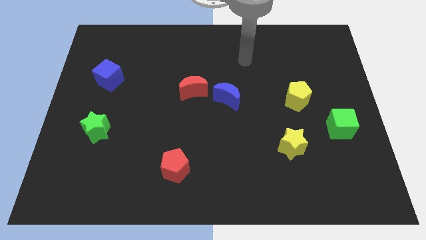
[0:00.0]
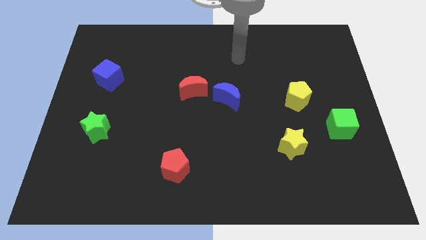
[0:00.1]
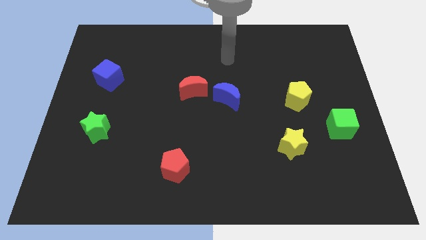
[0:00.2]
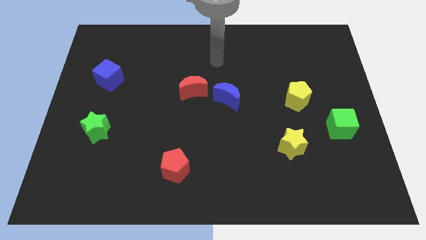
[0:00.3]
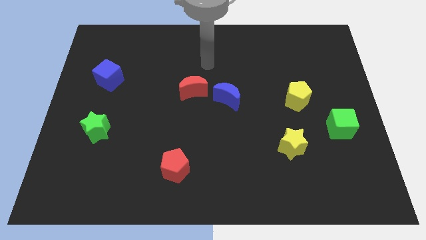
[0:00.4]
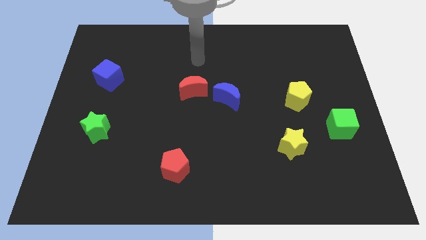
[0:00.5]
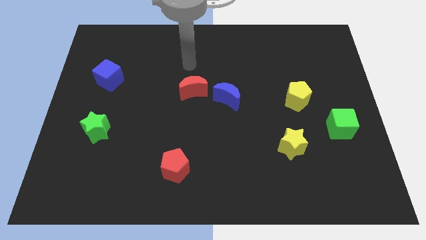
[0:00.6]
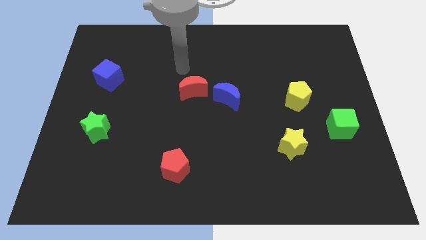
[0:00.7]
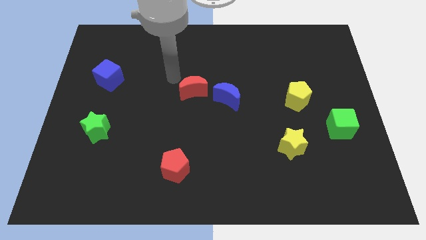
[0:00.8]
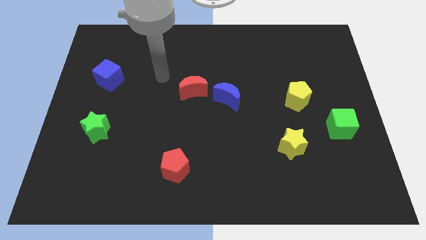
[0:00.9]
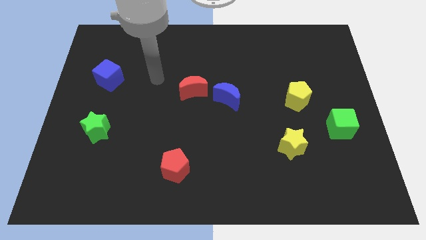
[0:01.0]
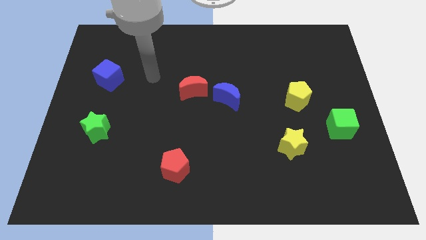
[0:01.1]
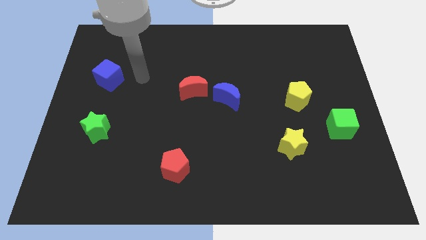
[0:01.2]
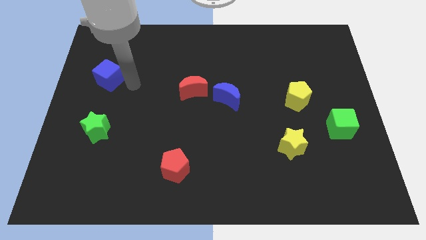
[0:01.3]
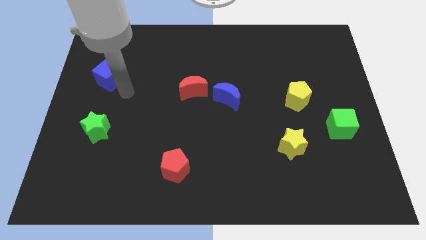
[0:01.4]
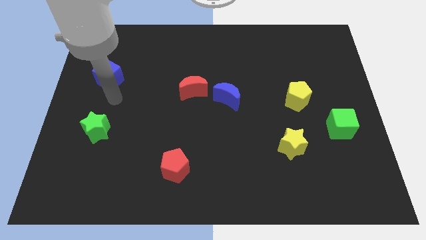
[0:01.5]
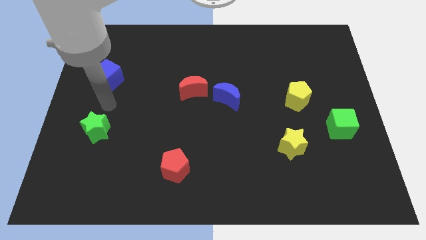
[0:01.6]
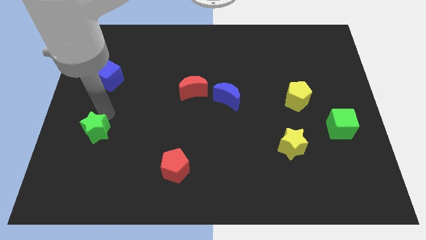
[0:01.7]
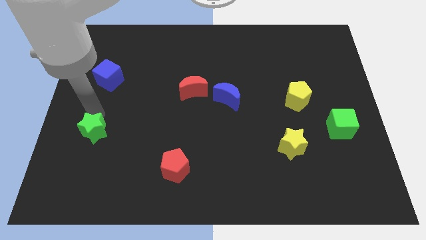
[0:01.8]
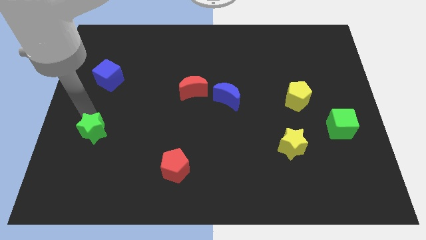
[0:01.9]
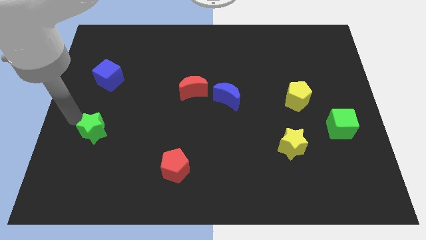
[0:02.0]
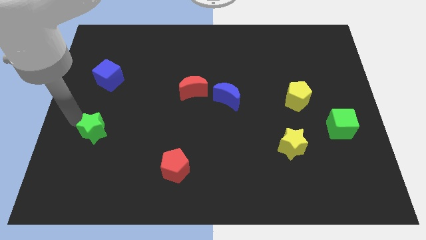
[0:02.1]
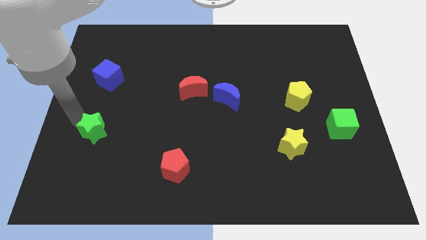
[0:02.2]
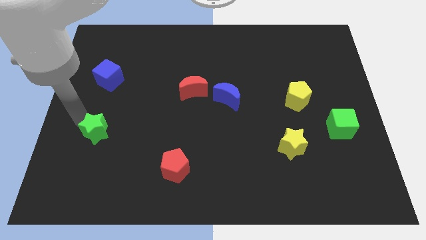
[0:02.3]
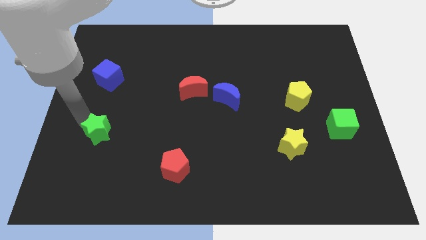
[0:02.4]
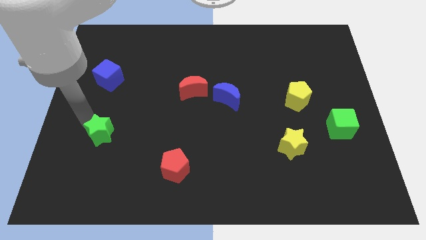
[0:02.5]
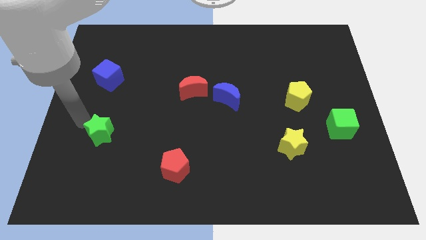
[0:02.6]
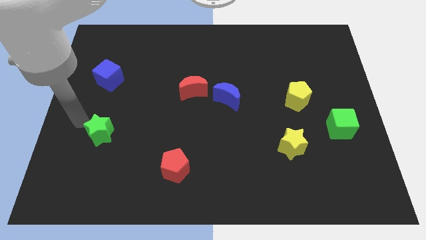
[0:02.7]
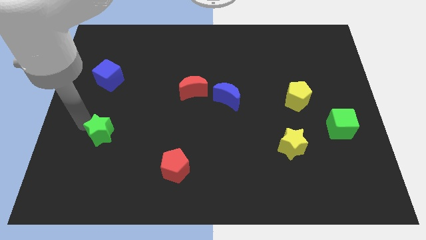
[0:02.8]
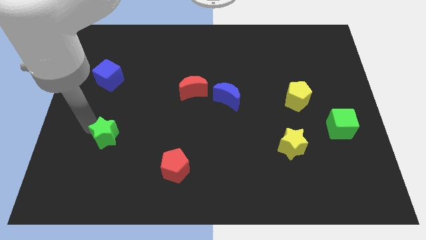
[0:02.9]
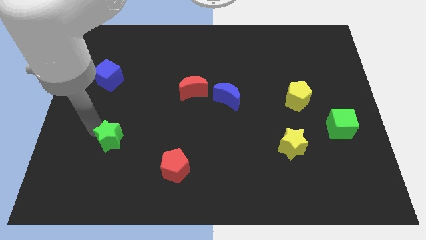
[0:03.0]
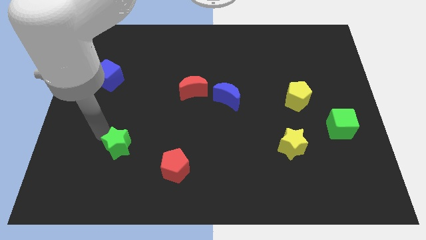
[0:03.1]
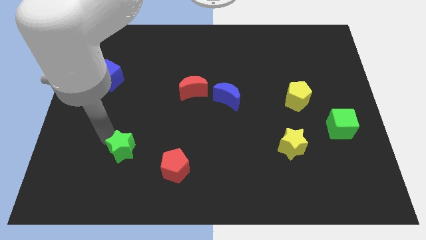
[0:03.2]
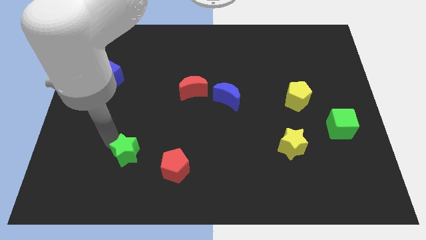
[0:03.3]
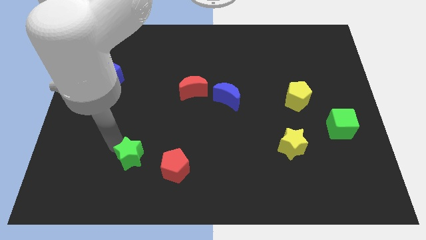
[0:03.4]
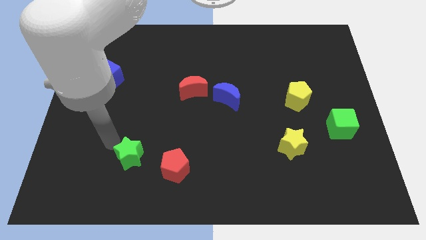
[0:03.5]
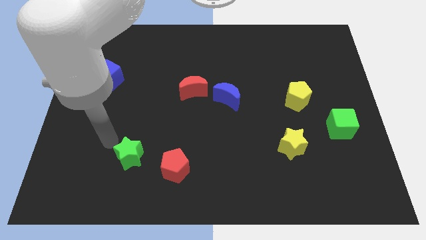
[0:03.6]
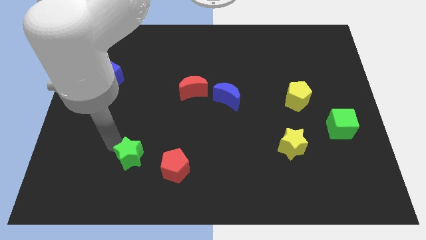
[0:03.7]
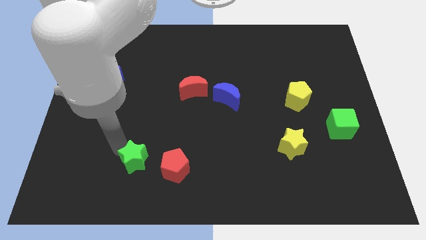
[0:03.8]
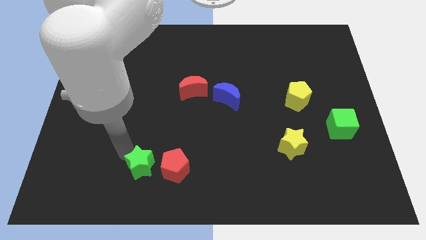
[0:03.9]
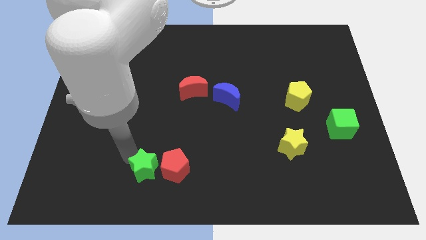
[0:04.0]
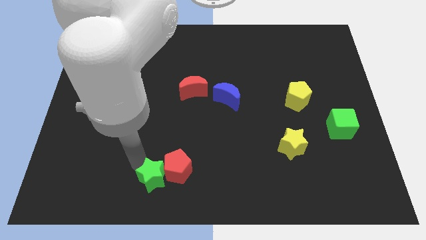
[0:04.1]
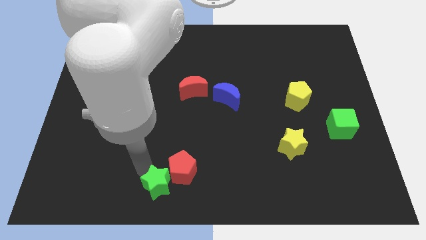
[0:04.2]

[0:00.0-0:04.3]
push the green star to the bottom

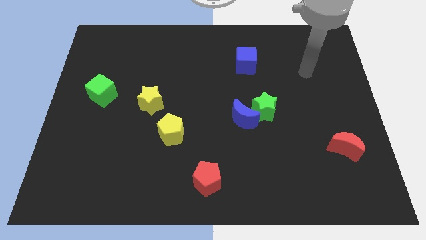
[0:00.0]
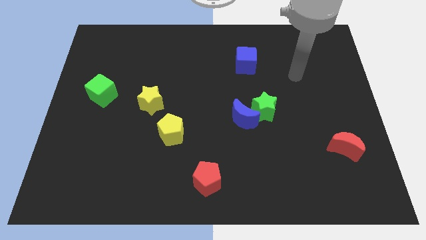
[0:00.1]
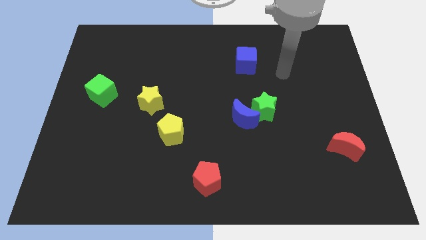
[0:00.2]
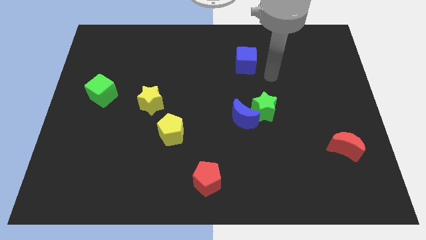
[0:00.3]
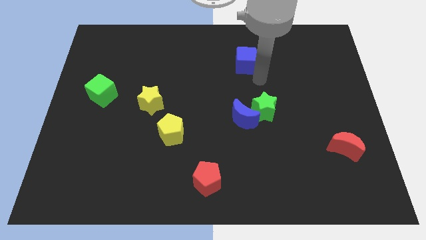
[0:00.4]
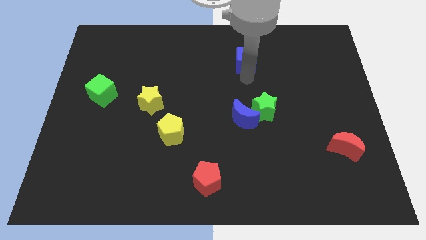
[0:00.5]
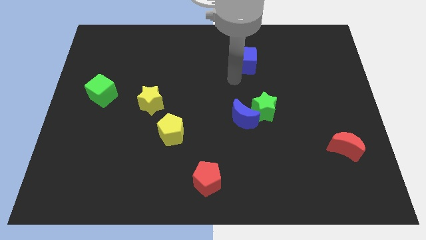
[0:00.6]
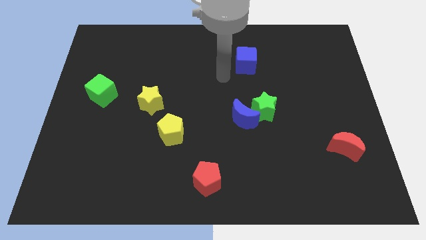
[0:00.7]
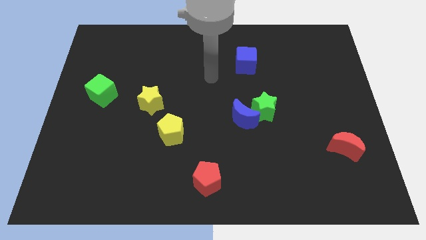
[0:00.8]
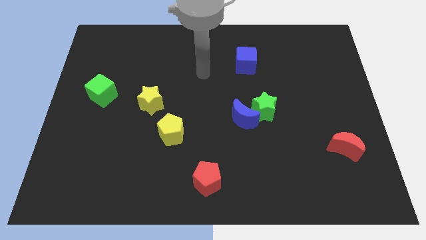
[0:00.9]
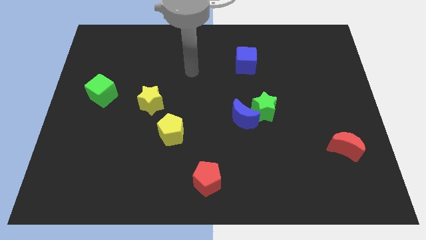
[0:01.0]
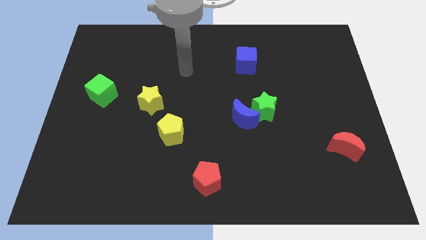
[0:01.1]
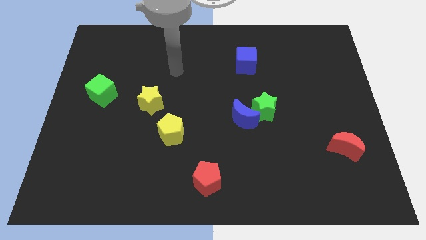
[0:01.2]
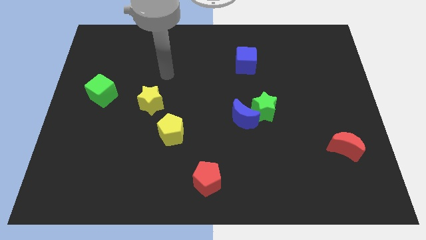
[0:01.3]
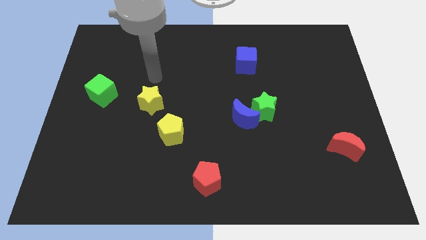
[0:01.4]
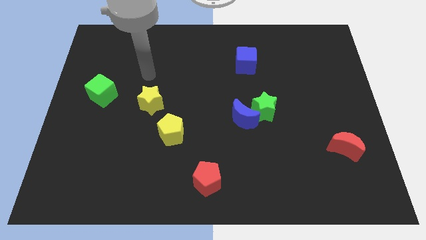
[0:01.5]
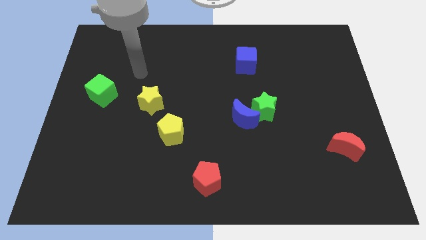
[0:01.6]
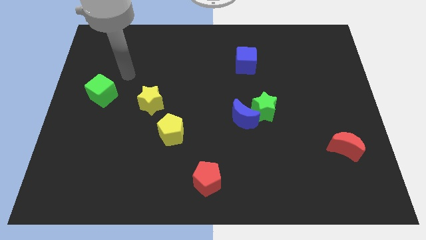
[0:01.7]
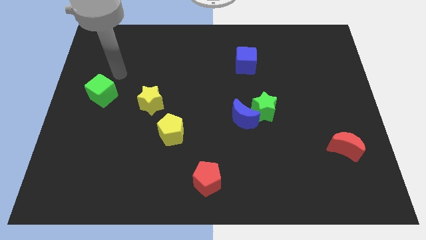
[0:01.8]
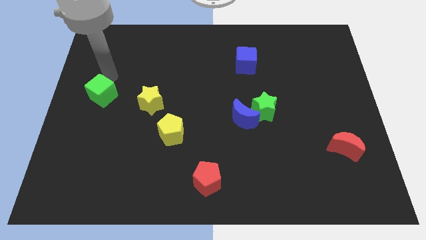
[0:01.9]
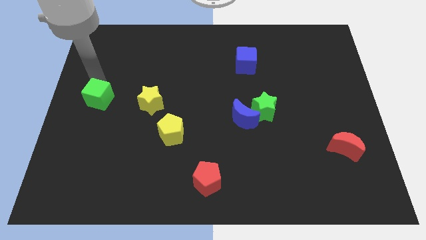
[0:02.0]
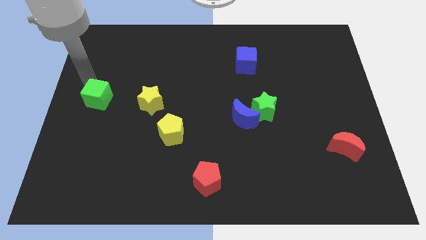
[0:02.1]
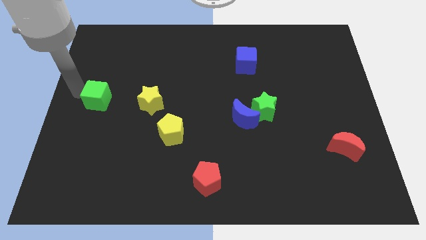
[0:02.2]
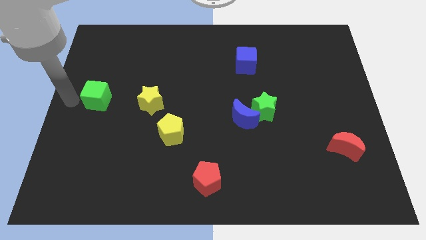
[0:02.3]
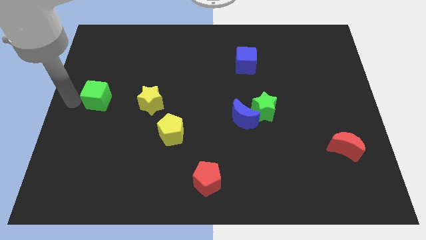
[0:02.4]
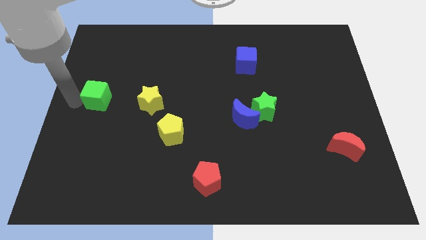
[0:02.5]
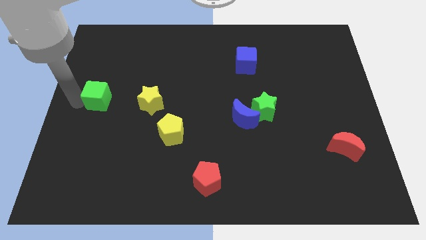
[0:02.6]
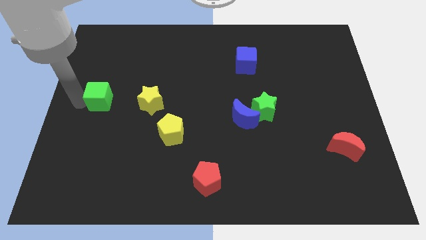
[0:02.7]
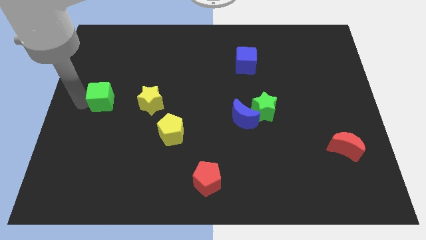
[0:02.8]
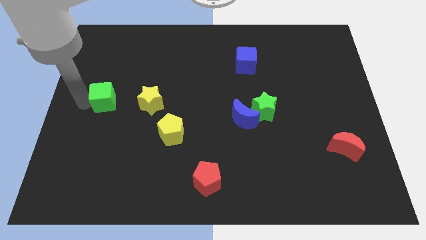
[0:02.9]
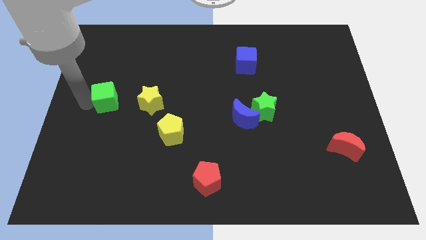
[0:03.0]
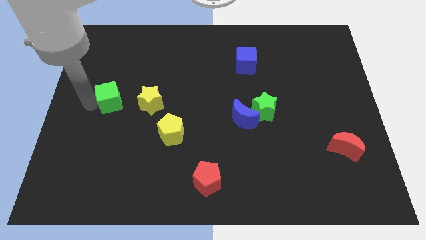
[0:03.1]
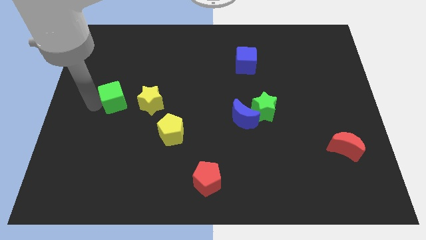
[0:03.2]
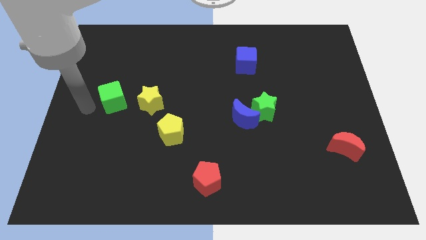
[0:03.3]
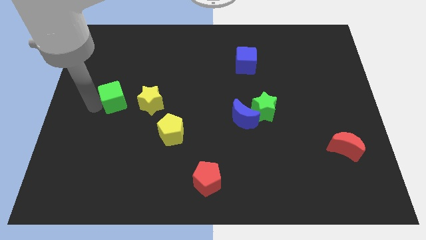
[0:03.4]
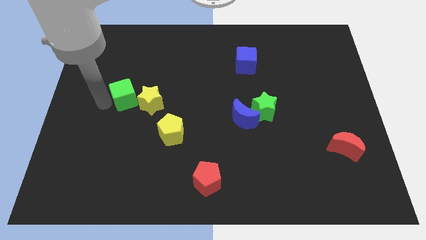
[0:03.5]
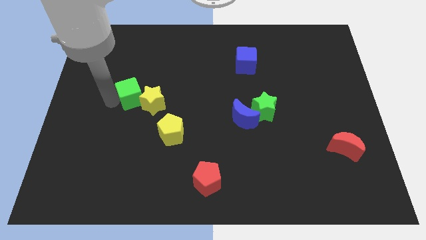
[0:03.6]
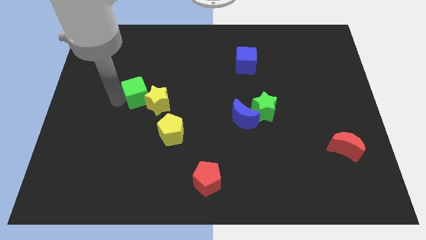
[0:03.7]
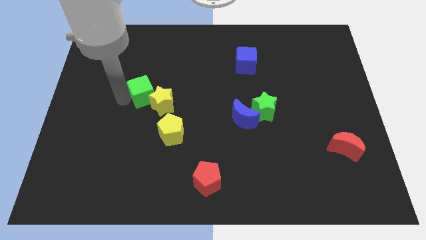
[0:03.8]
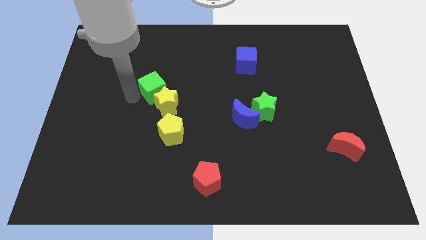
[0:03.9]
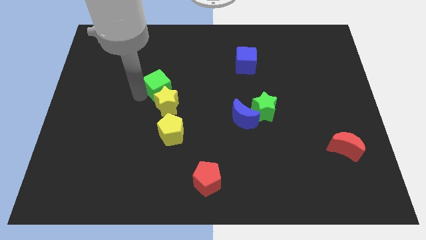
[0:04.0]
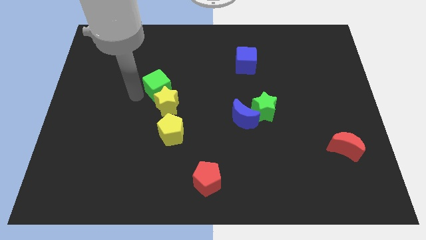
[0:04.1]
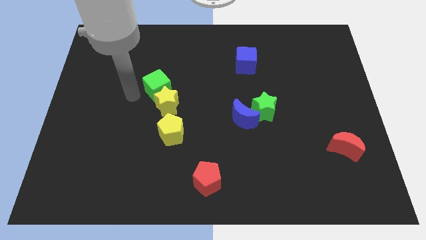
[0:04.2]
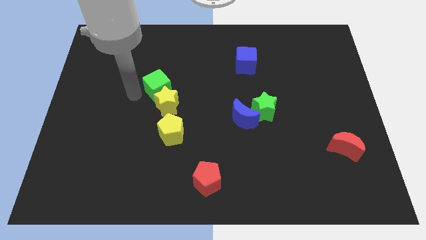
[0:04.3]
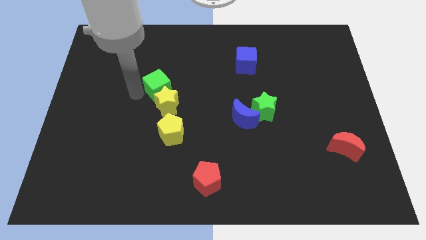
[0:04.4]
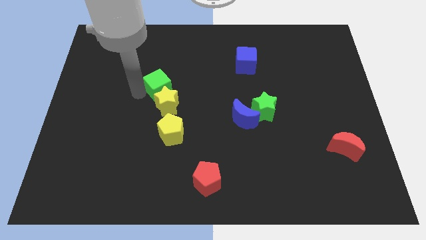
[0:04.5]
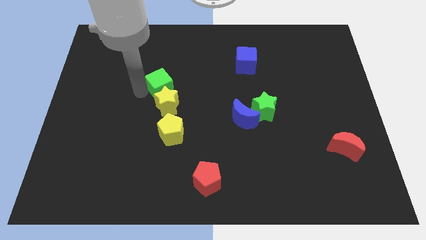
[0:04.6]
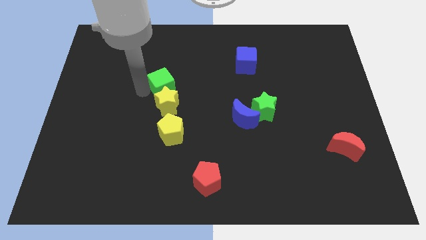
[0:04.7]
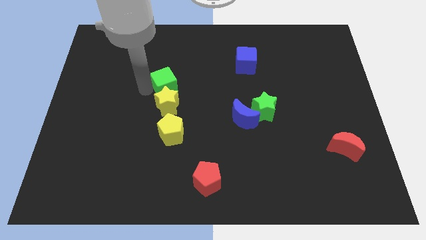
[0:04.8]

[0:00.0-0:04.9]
put the green cube to the middle of the board
